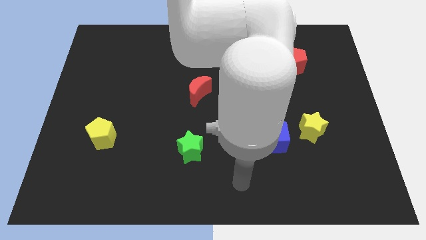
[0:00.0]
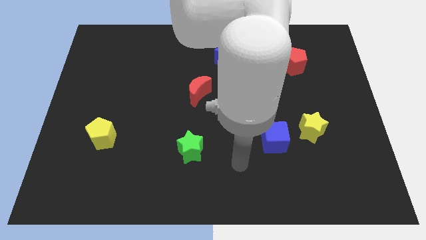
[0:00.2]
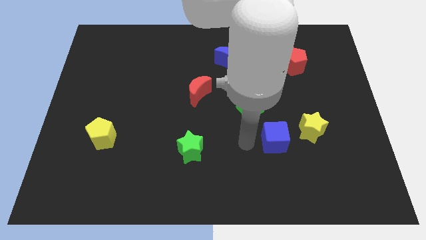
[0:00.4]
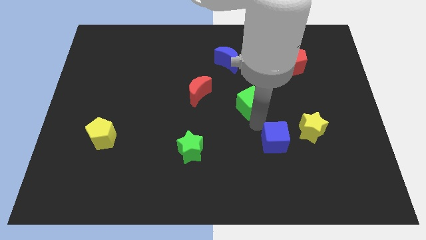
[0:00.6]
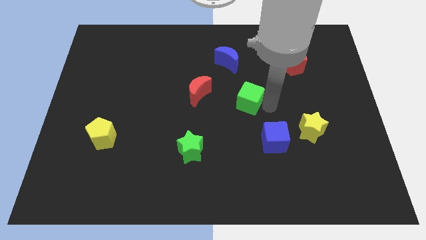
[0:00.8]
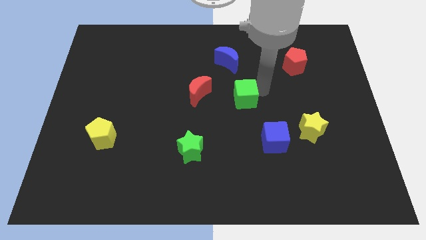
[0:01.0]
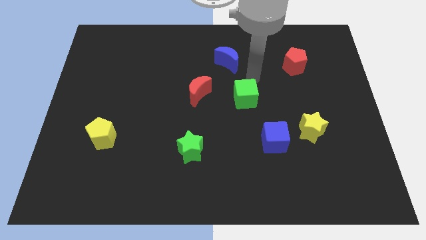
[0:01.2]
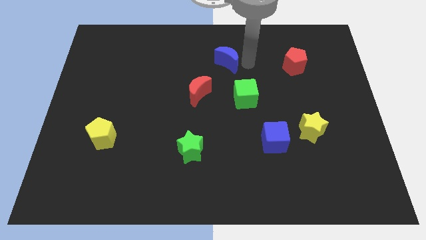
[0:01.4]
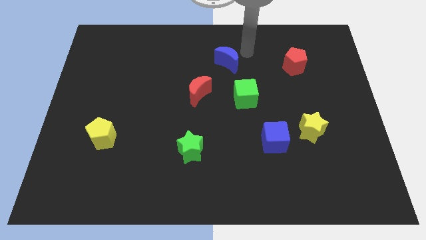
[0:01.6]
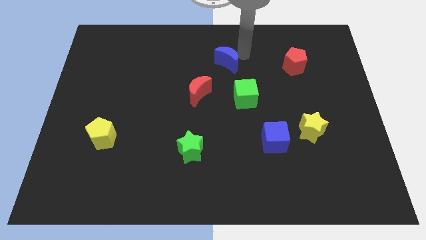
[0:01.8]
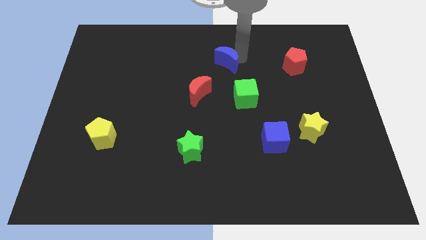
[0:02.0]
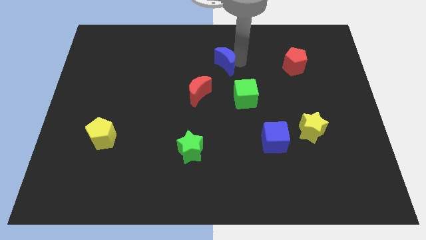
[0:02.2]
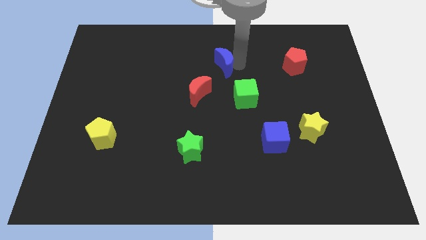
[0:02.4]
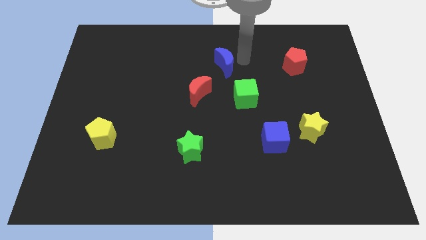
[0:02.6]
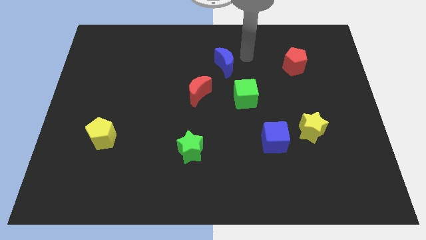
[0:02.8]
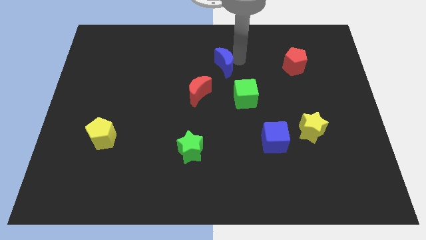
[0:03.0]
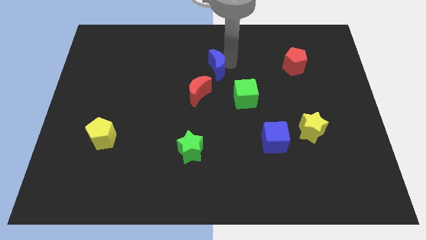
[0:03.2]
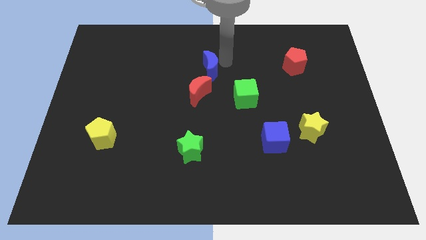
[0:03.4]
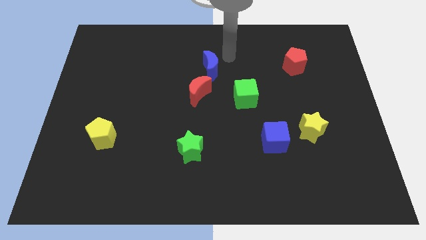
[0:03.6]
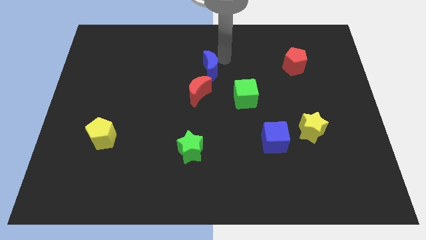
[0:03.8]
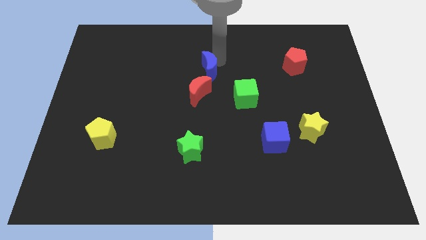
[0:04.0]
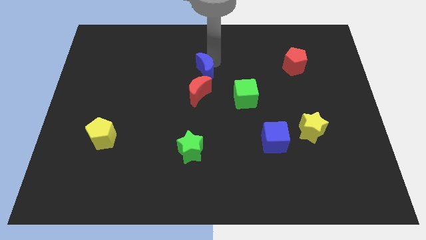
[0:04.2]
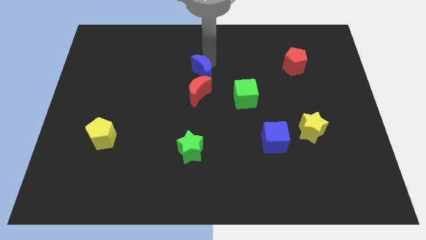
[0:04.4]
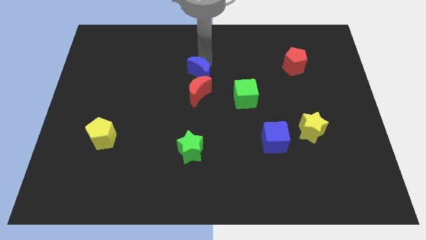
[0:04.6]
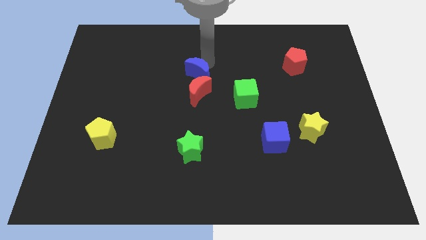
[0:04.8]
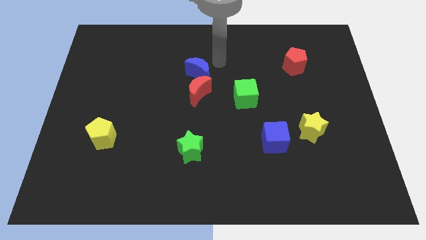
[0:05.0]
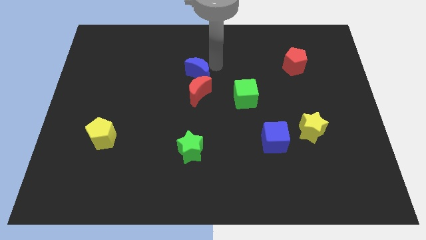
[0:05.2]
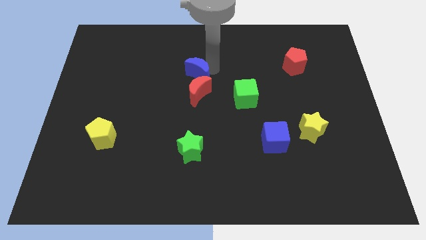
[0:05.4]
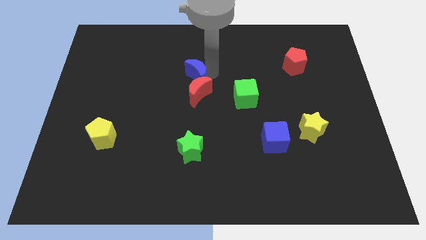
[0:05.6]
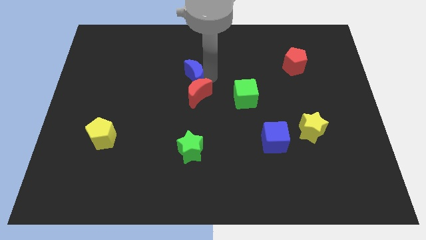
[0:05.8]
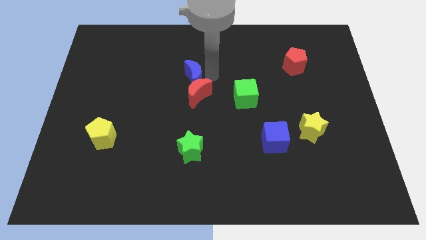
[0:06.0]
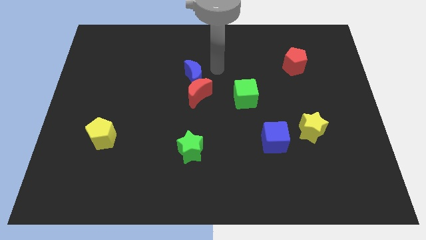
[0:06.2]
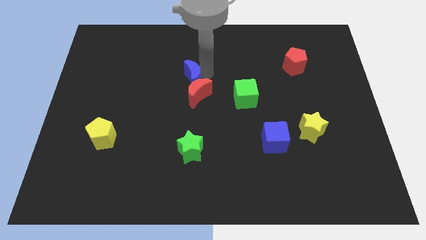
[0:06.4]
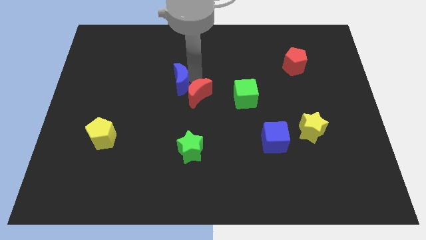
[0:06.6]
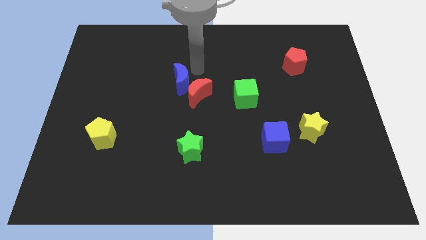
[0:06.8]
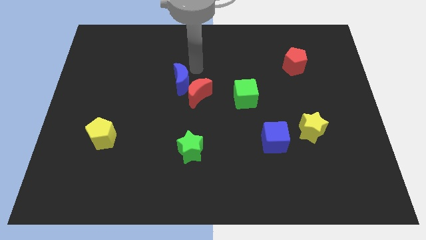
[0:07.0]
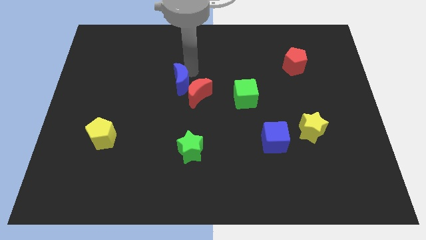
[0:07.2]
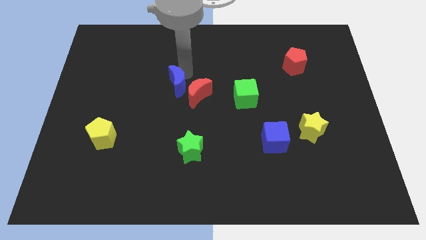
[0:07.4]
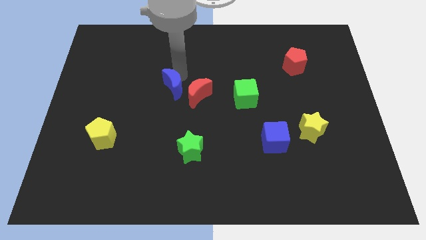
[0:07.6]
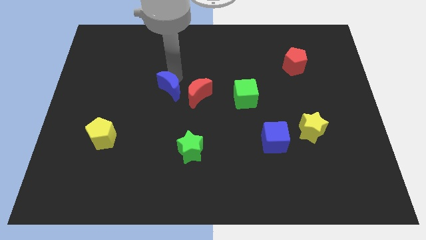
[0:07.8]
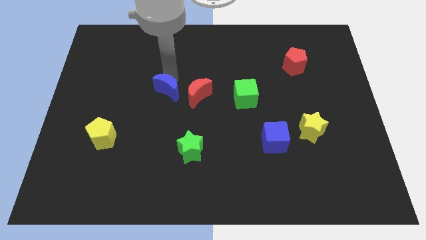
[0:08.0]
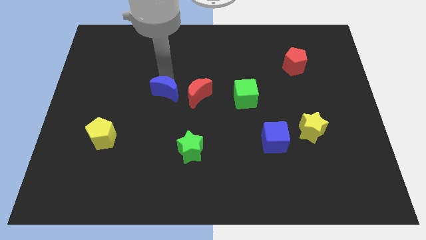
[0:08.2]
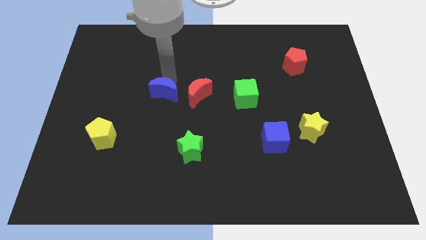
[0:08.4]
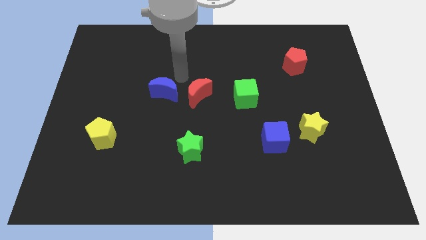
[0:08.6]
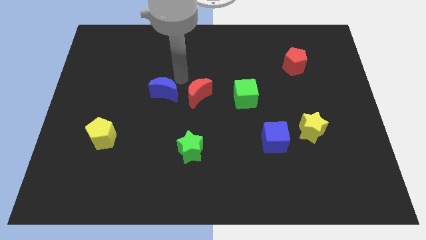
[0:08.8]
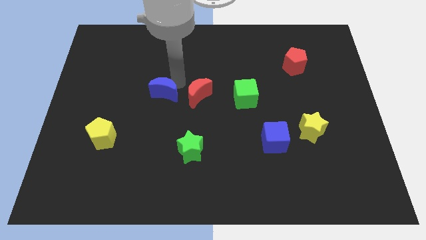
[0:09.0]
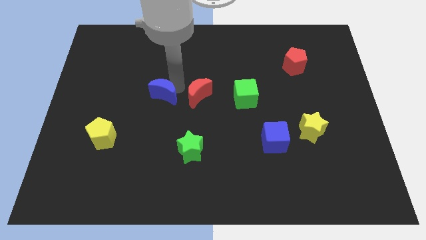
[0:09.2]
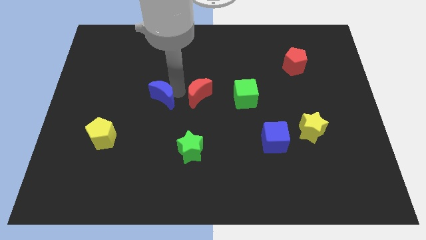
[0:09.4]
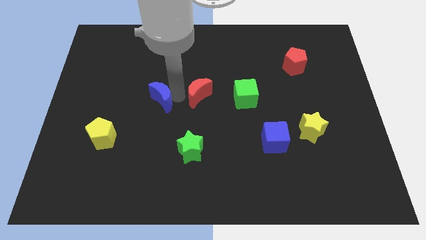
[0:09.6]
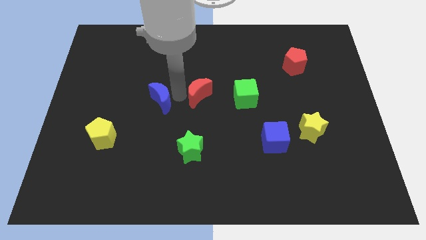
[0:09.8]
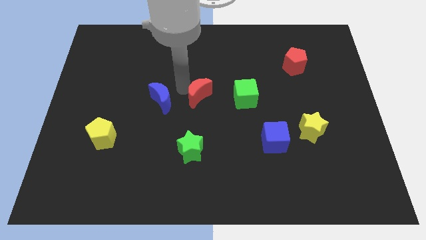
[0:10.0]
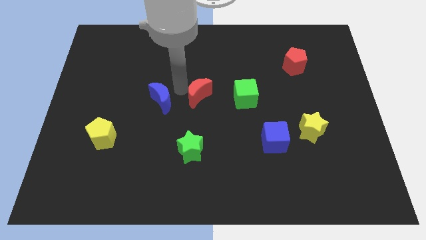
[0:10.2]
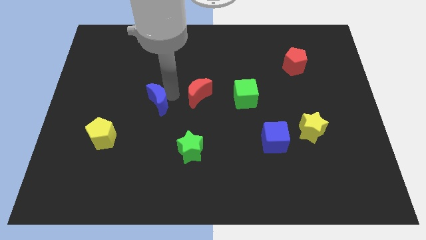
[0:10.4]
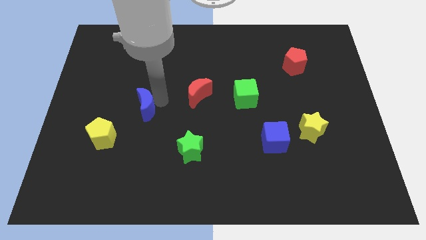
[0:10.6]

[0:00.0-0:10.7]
put the blue moon to the top right of the yellow pentagon

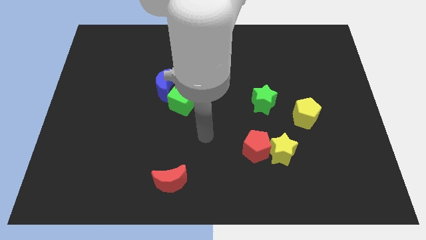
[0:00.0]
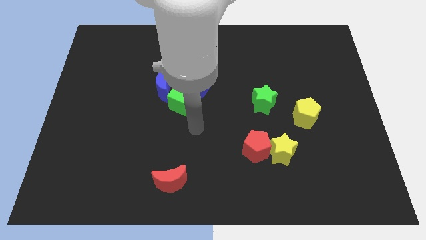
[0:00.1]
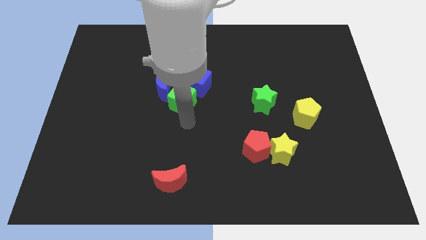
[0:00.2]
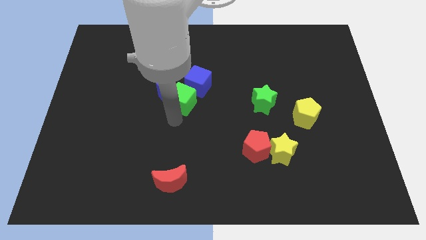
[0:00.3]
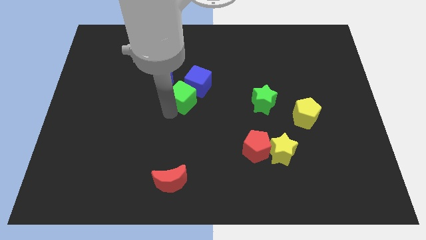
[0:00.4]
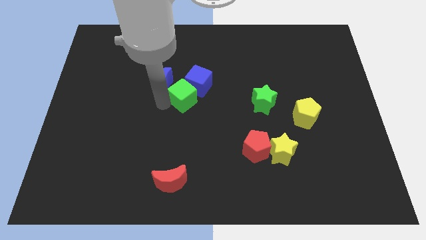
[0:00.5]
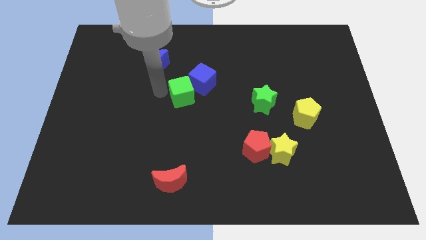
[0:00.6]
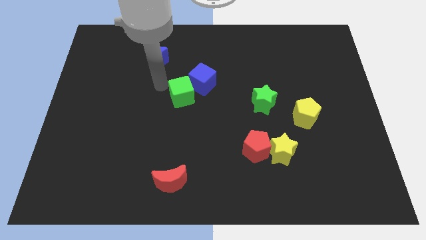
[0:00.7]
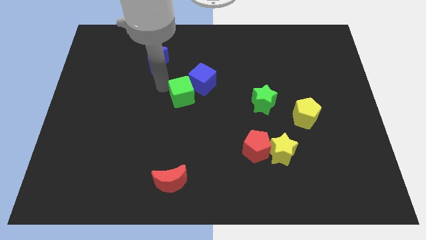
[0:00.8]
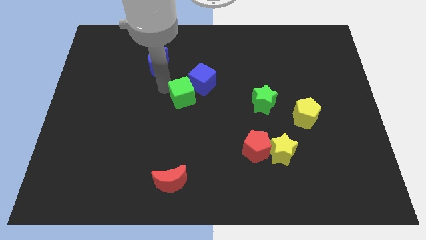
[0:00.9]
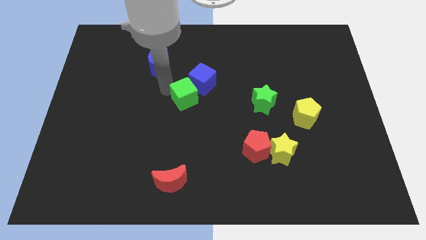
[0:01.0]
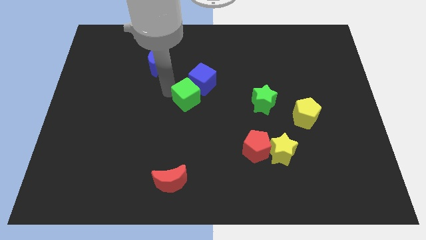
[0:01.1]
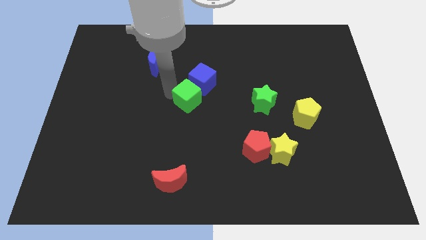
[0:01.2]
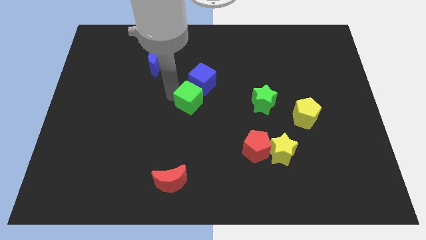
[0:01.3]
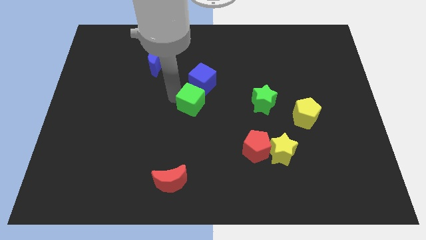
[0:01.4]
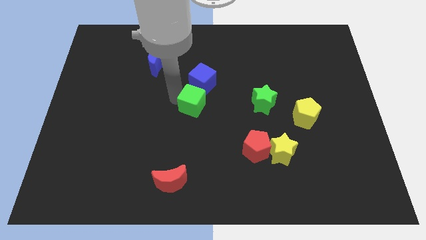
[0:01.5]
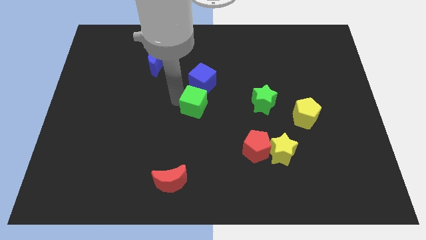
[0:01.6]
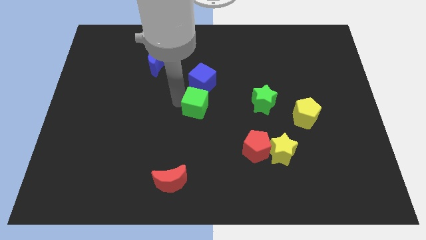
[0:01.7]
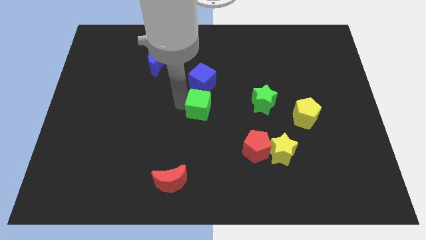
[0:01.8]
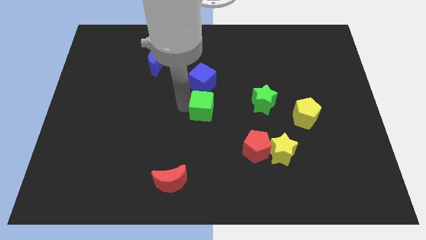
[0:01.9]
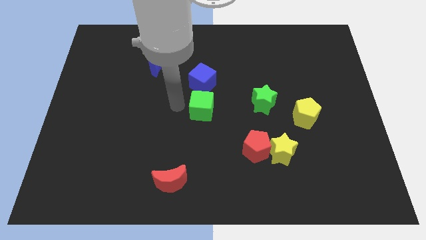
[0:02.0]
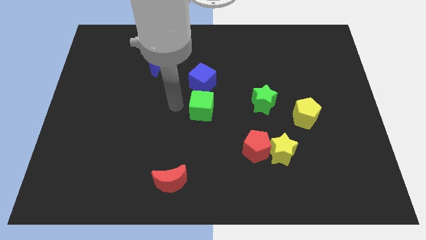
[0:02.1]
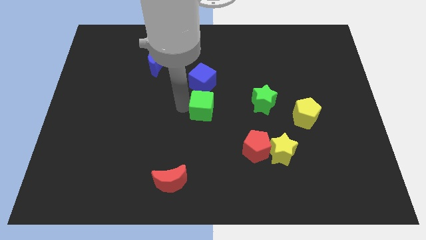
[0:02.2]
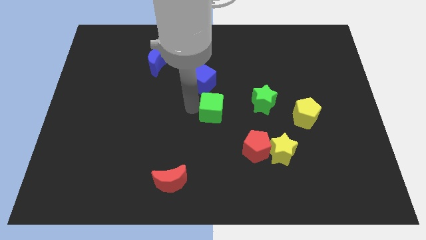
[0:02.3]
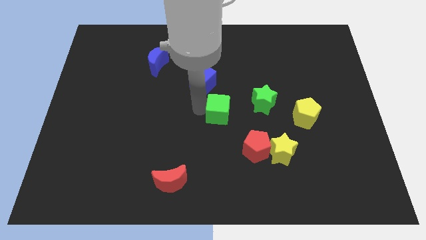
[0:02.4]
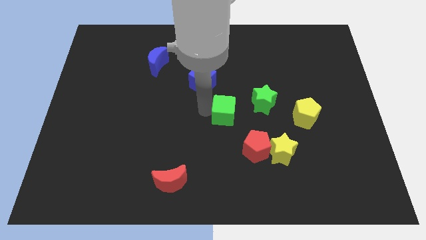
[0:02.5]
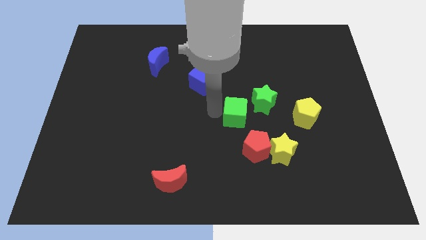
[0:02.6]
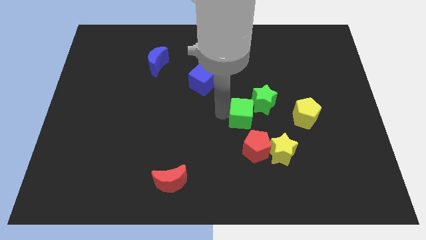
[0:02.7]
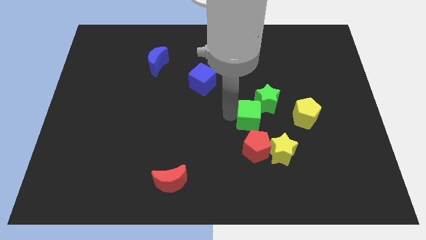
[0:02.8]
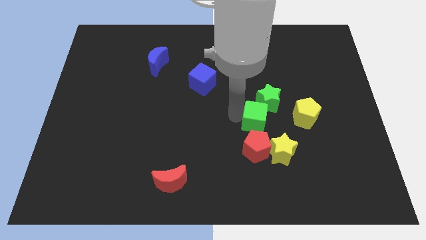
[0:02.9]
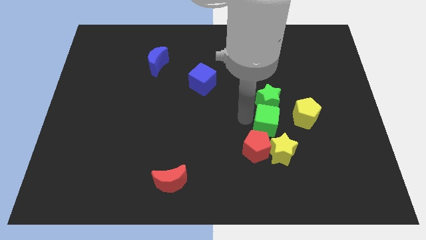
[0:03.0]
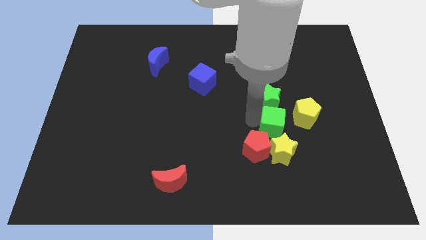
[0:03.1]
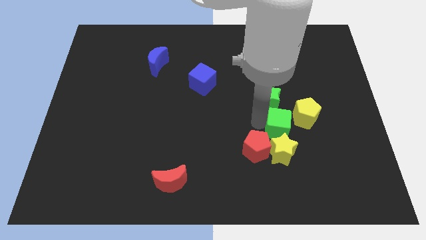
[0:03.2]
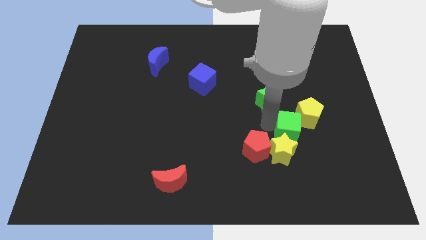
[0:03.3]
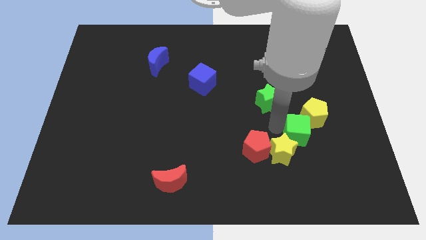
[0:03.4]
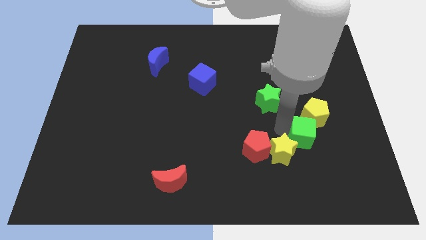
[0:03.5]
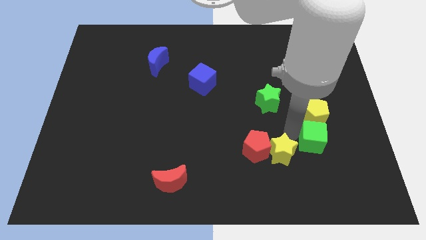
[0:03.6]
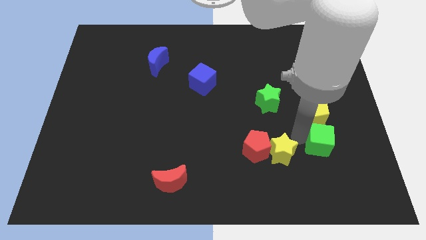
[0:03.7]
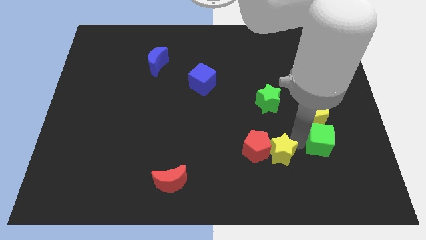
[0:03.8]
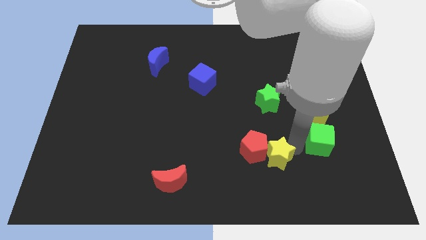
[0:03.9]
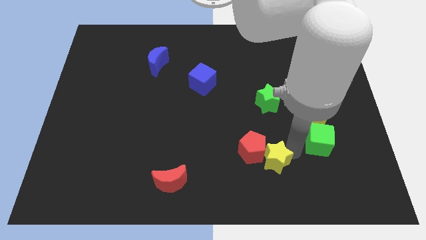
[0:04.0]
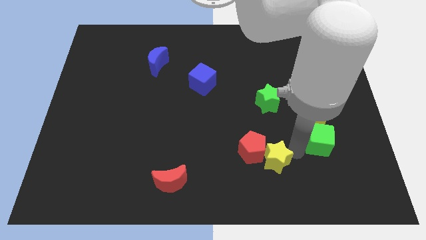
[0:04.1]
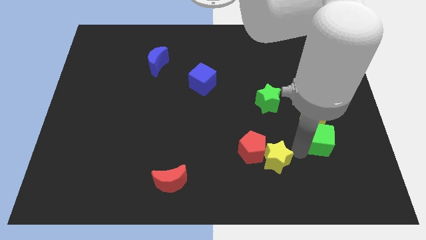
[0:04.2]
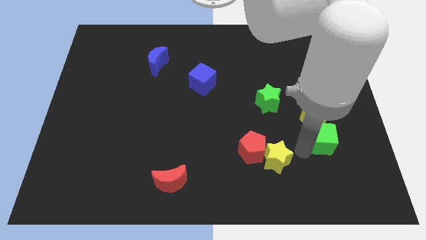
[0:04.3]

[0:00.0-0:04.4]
move the green cube diagonally down and to the right of the yellow pentagon
